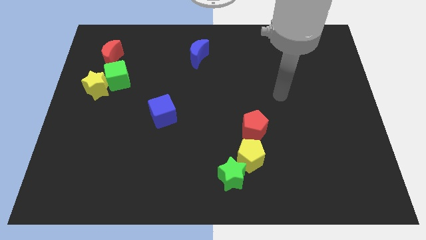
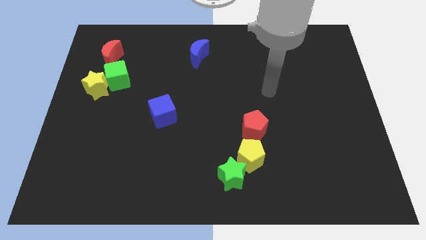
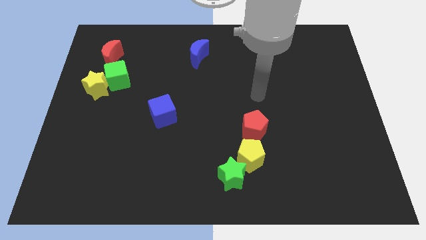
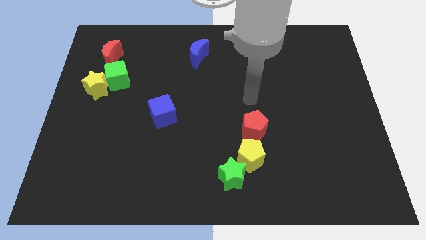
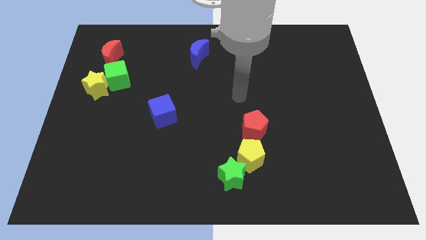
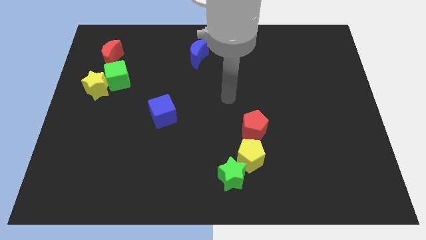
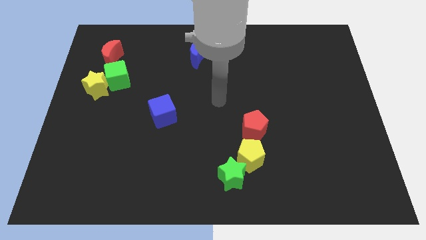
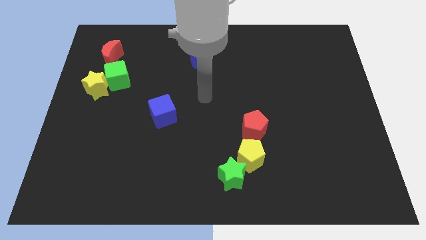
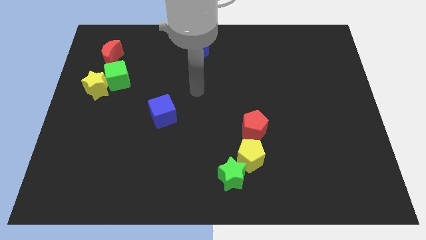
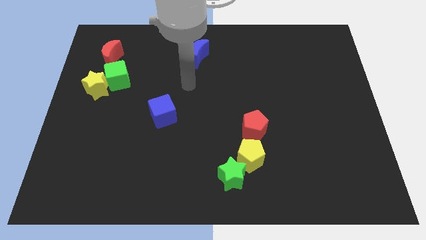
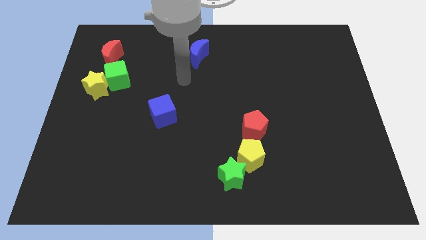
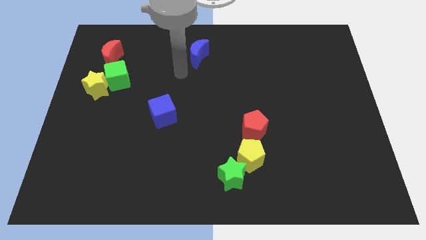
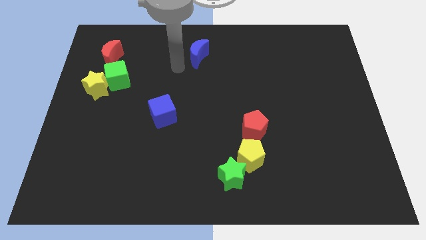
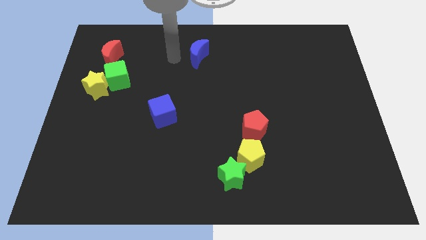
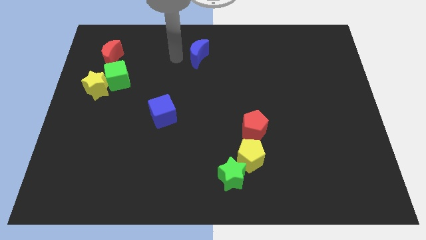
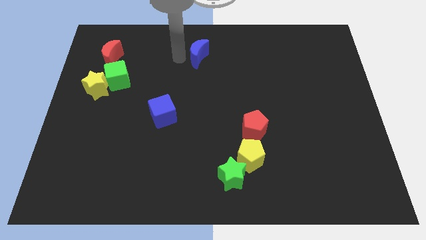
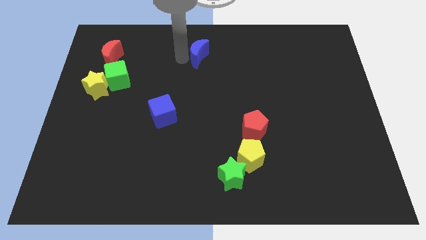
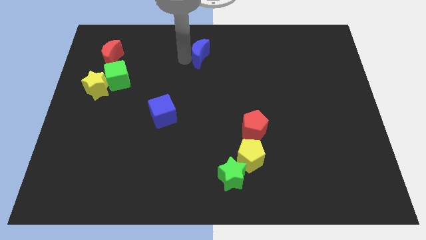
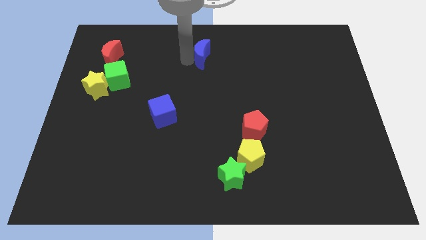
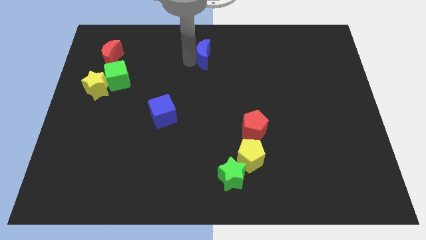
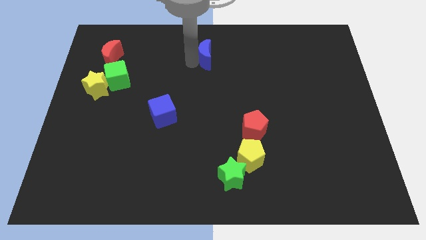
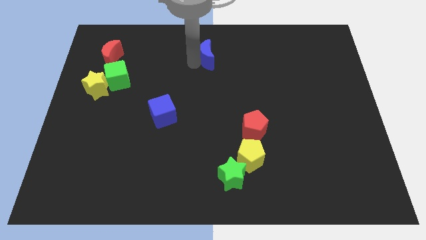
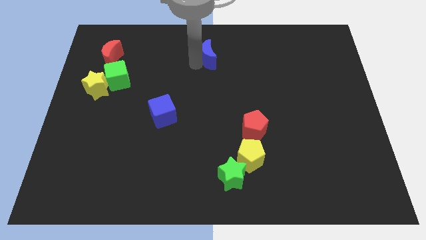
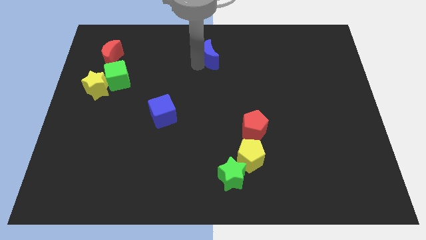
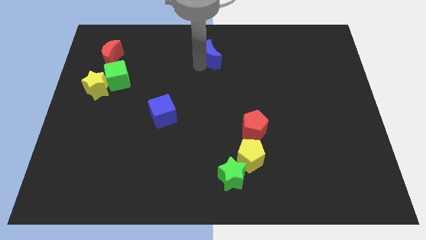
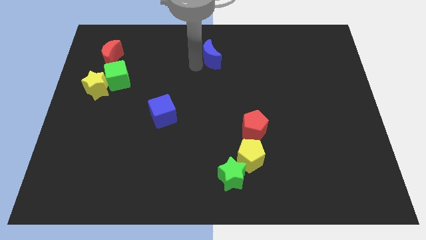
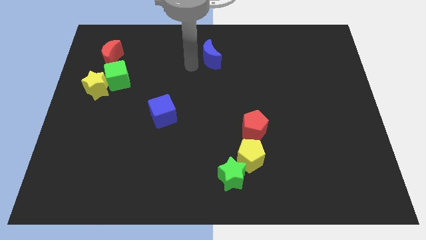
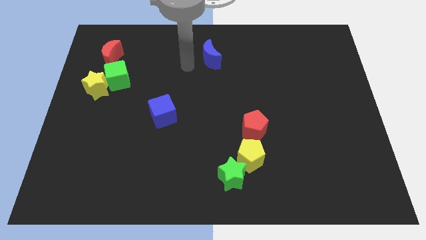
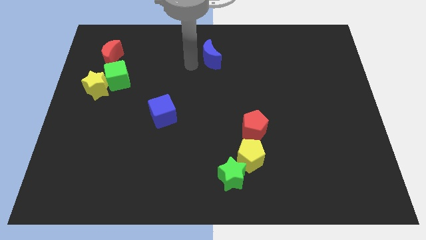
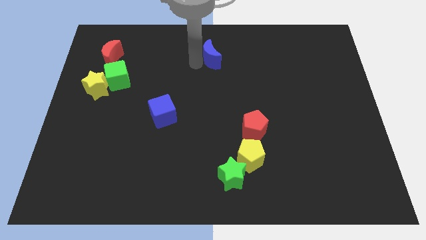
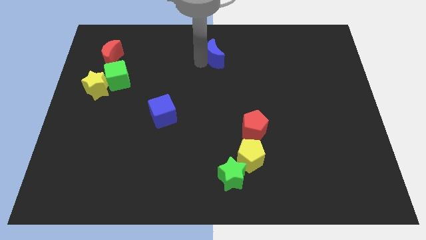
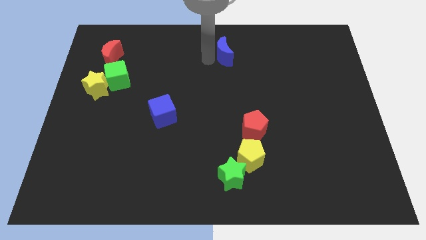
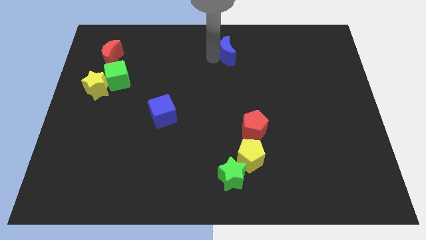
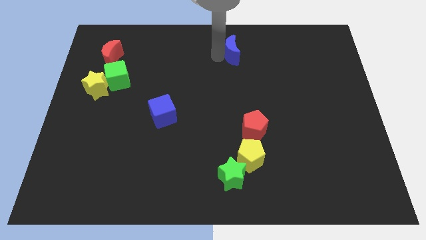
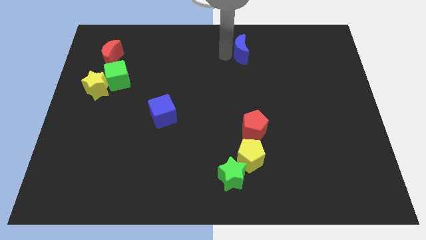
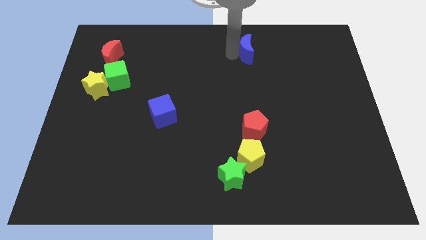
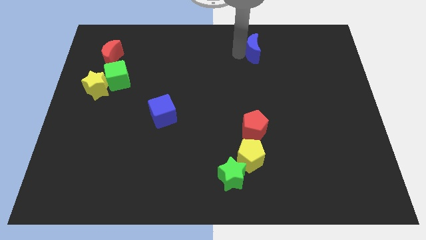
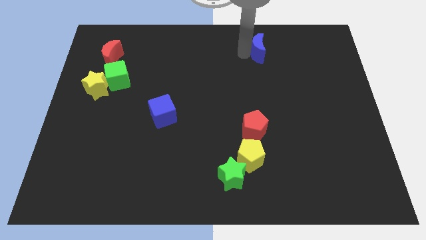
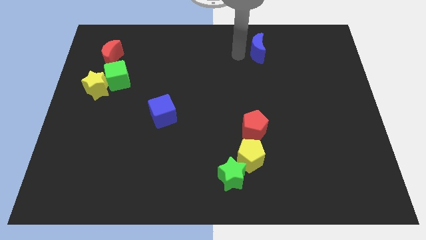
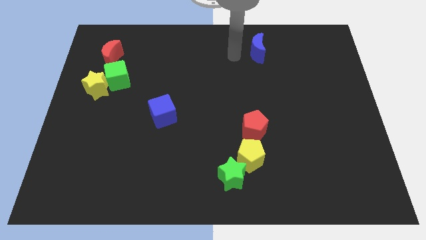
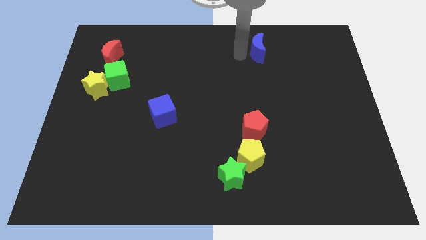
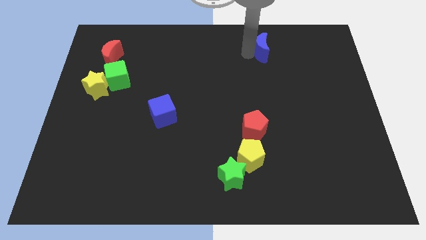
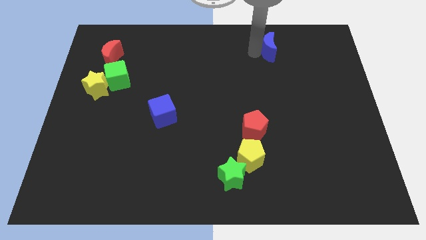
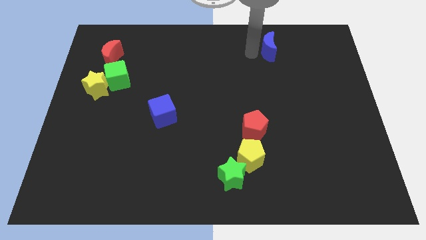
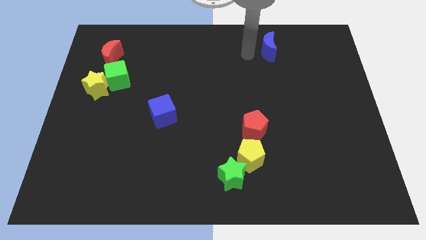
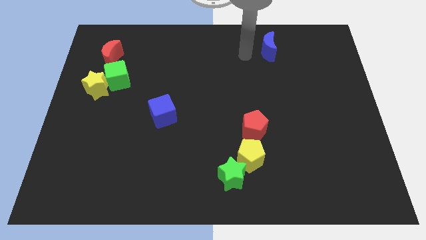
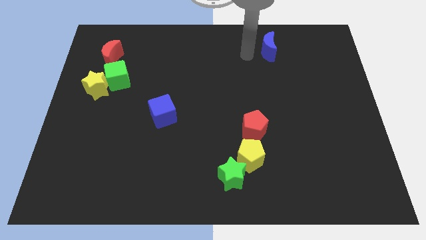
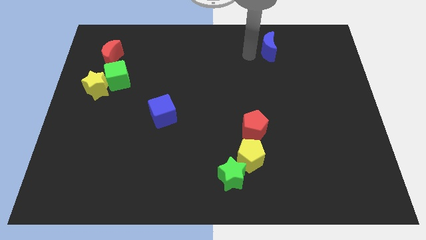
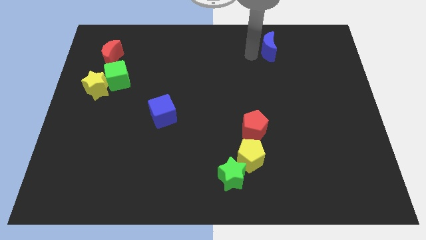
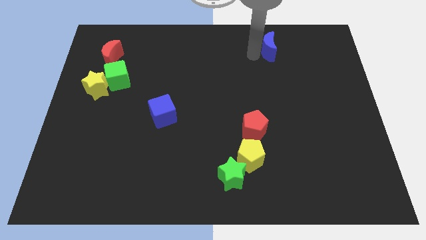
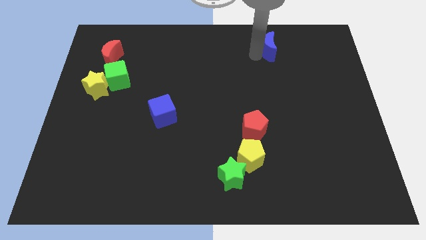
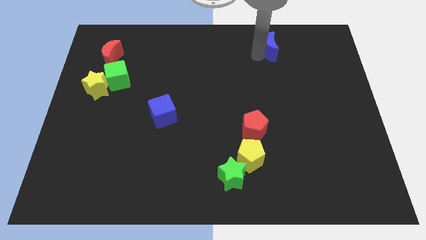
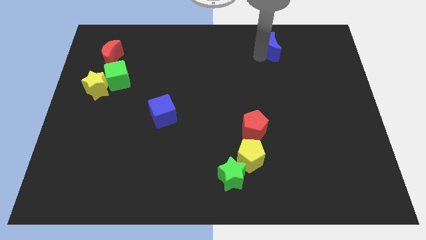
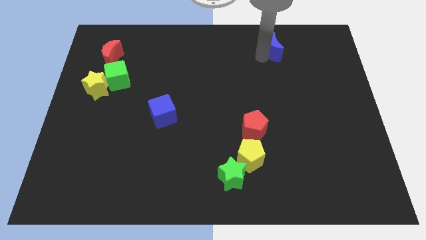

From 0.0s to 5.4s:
move the blue moon to the right

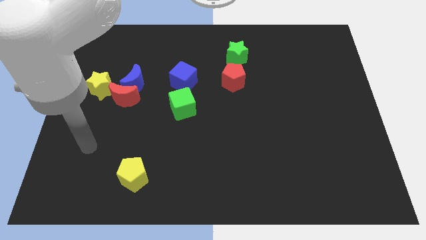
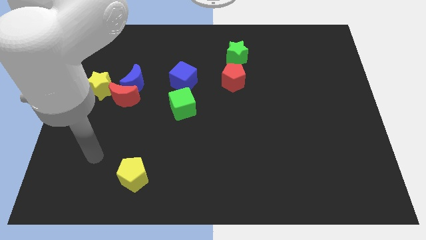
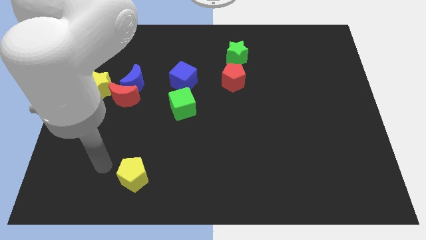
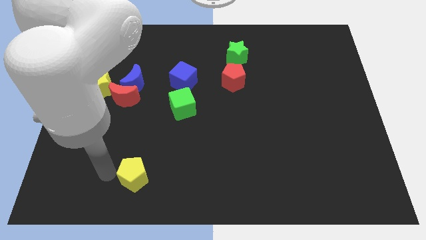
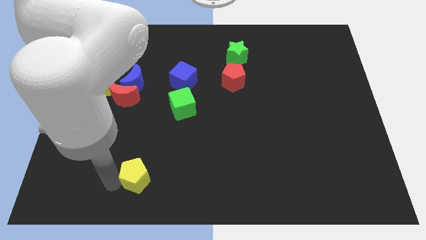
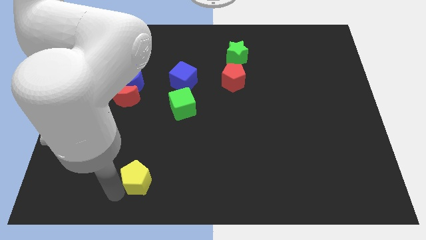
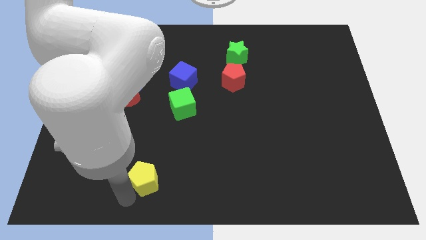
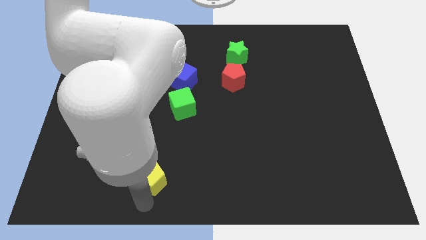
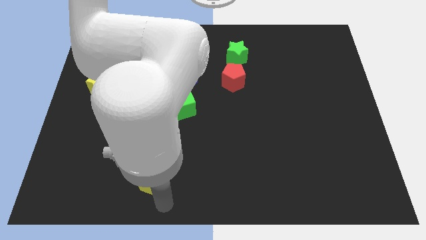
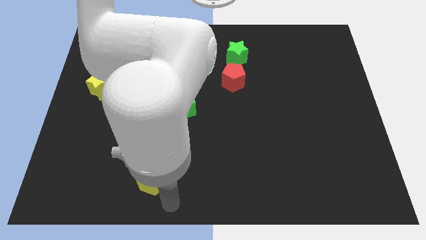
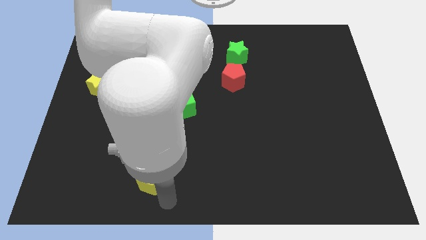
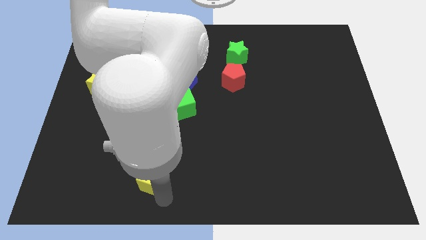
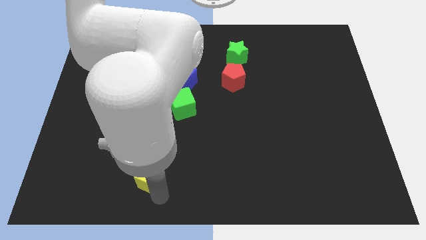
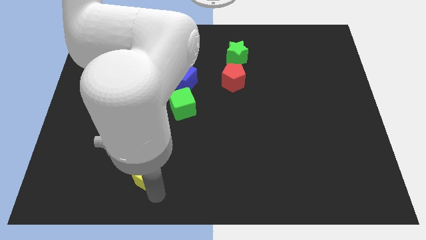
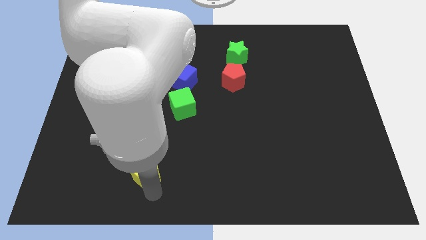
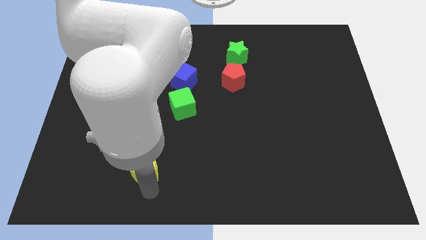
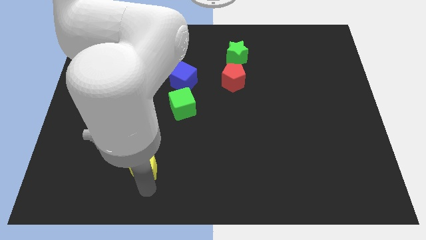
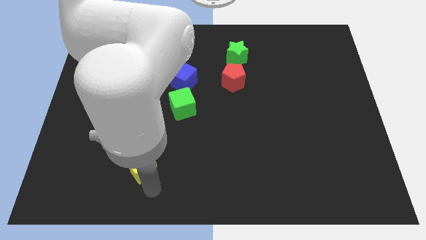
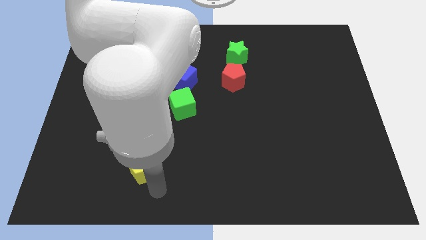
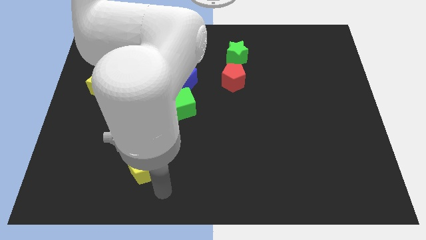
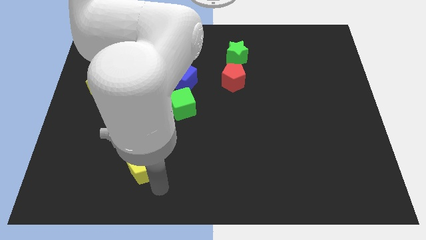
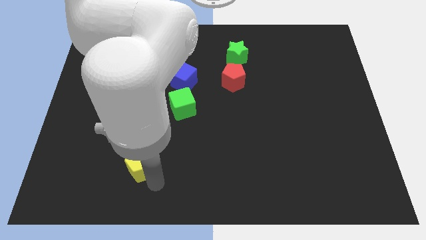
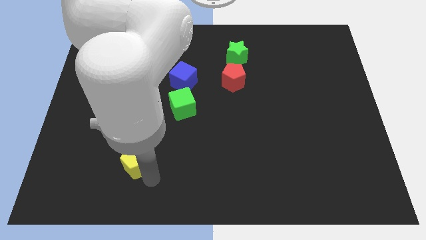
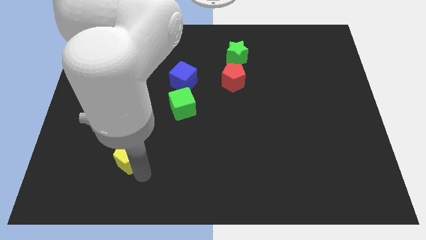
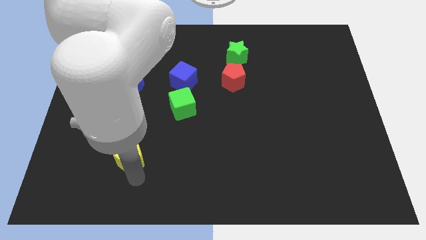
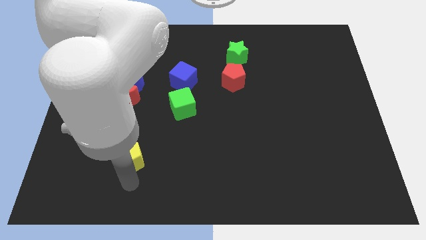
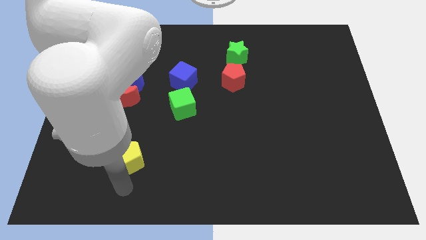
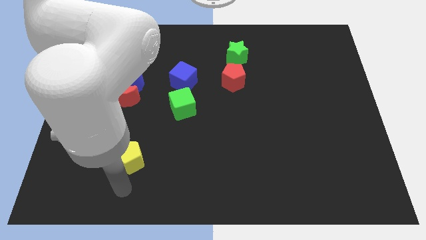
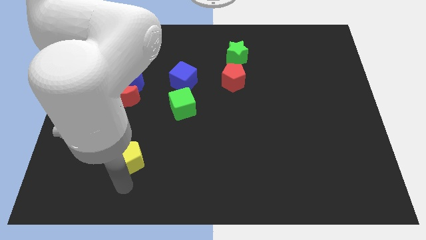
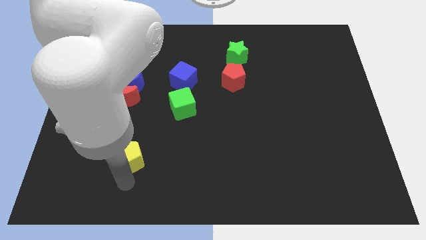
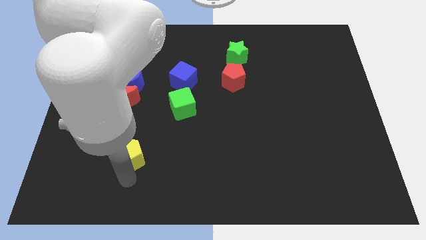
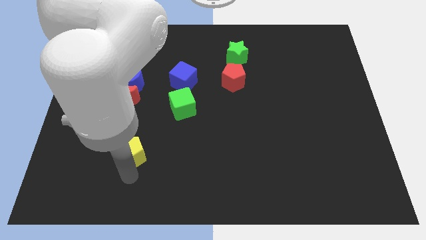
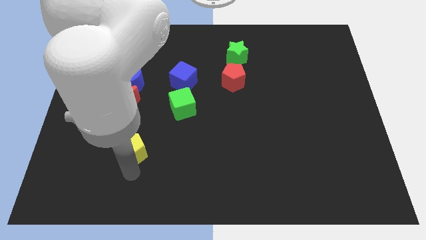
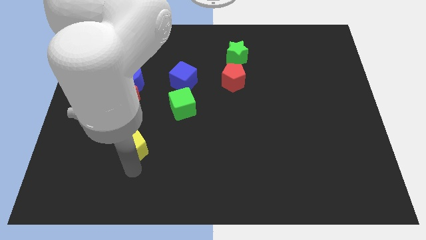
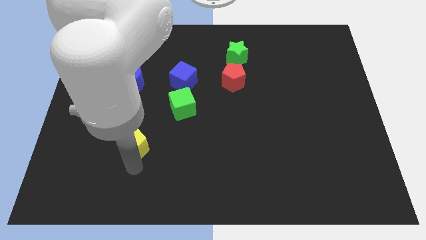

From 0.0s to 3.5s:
slightly move the yellow pentagon upwards
